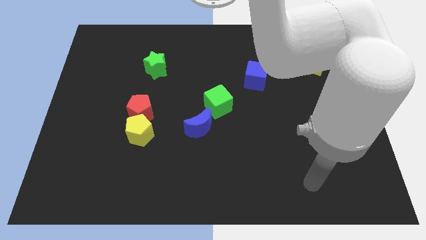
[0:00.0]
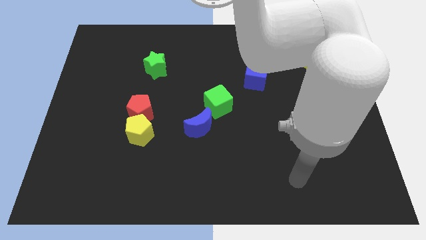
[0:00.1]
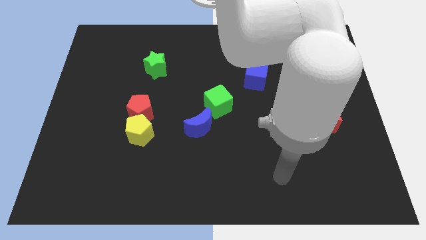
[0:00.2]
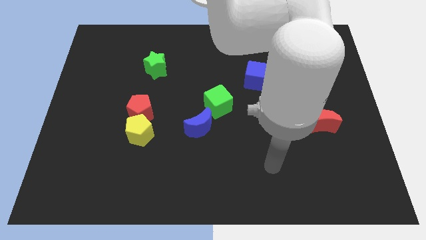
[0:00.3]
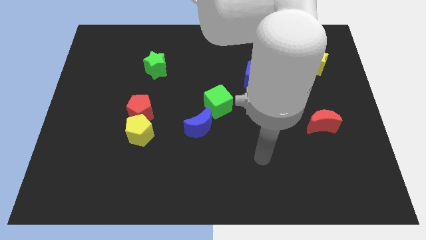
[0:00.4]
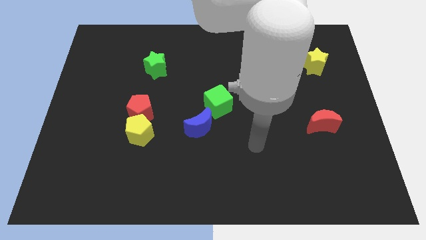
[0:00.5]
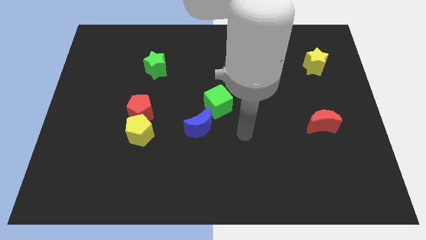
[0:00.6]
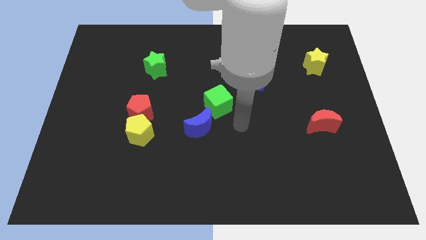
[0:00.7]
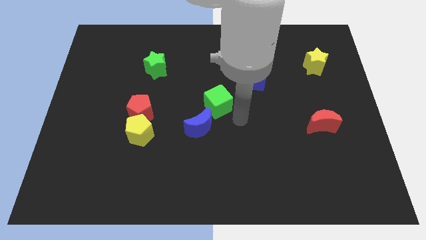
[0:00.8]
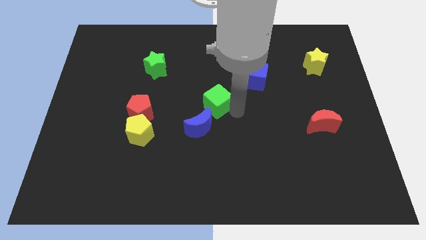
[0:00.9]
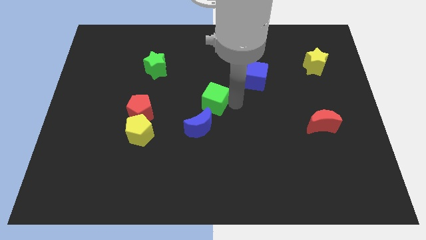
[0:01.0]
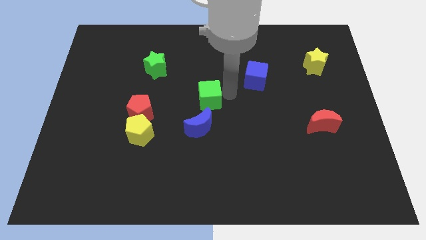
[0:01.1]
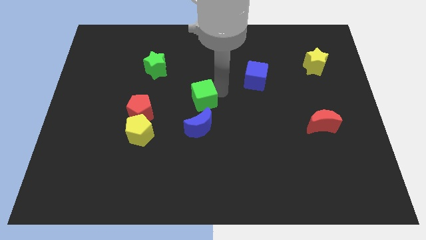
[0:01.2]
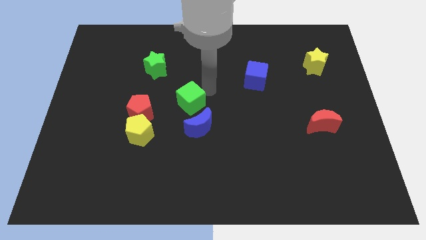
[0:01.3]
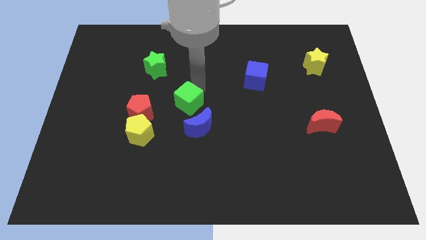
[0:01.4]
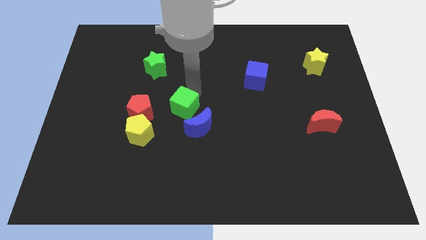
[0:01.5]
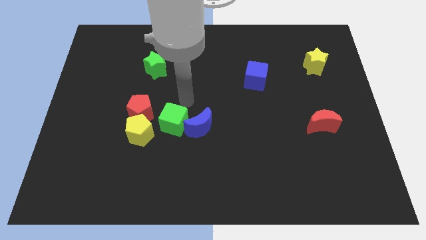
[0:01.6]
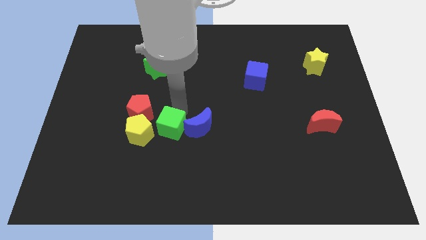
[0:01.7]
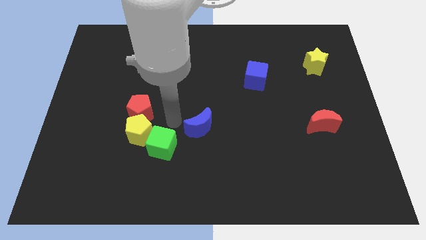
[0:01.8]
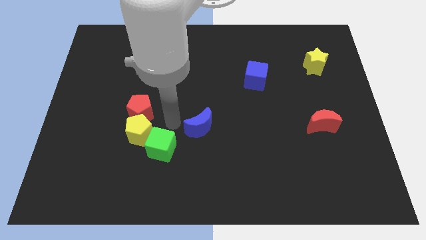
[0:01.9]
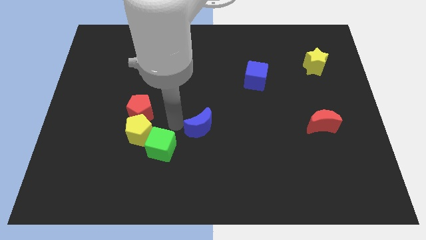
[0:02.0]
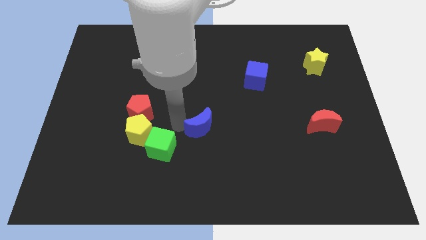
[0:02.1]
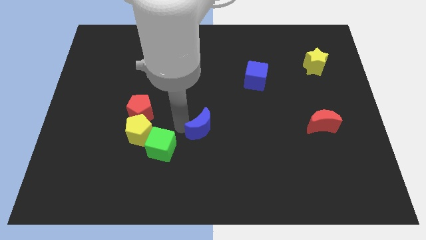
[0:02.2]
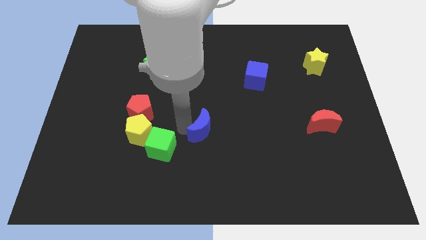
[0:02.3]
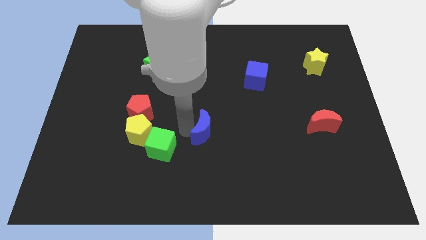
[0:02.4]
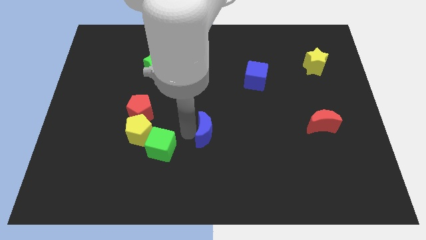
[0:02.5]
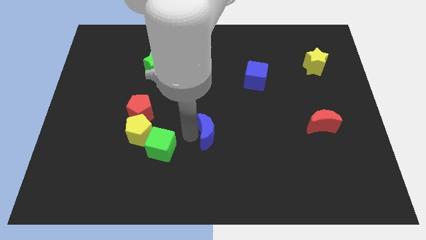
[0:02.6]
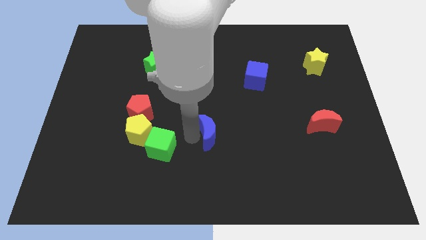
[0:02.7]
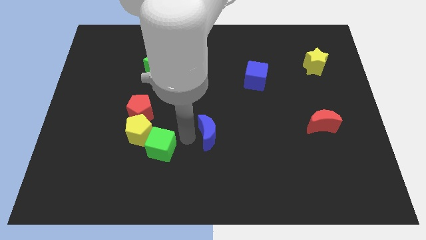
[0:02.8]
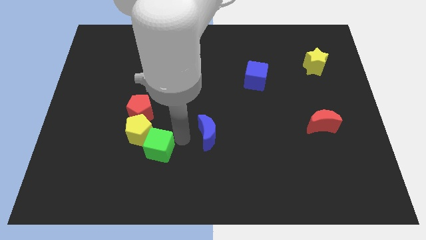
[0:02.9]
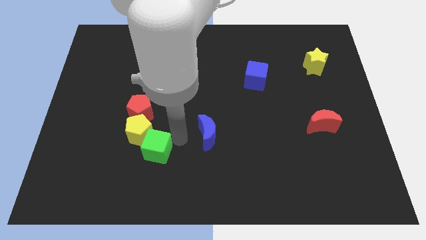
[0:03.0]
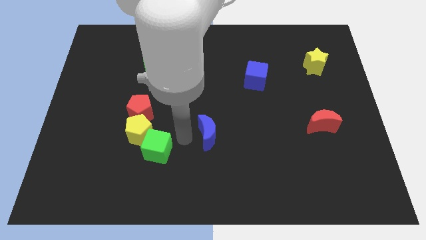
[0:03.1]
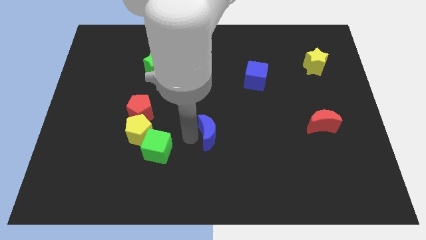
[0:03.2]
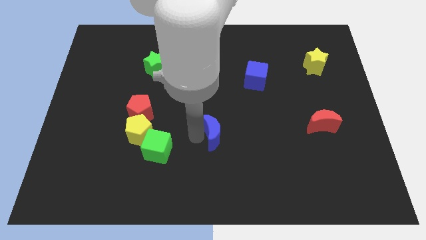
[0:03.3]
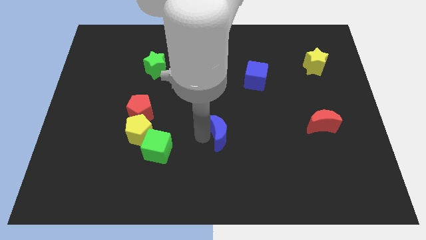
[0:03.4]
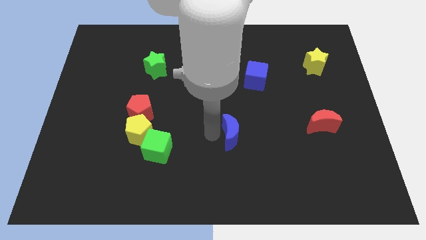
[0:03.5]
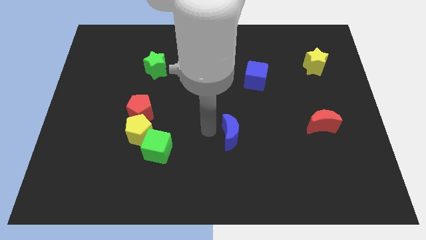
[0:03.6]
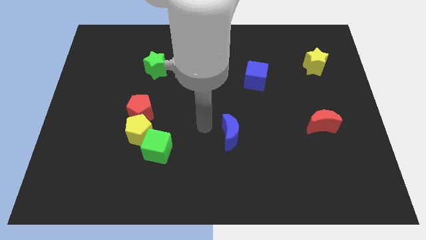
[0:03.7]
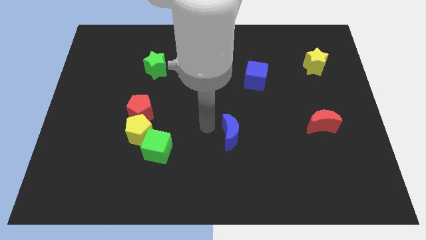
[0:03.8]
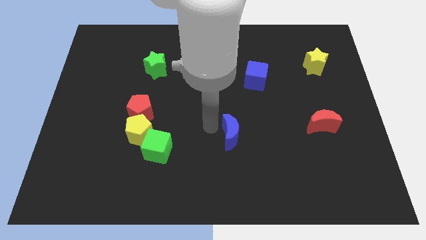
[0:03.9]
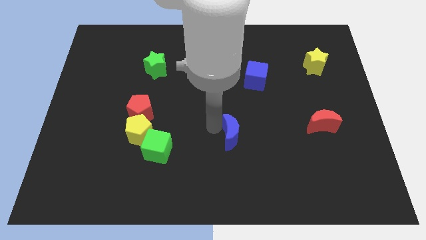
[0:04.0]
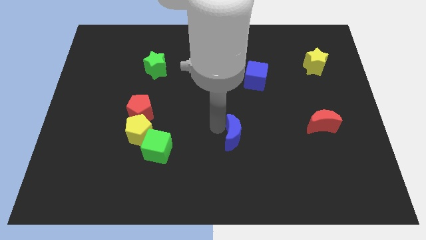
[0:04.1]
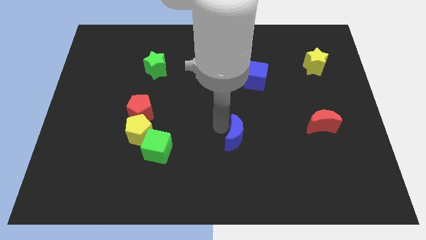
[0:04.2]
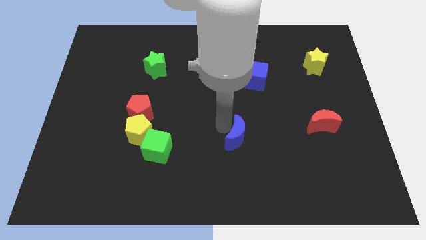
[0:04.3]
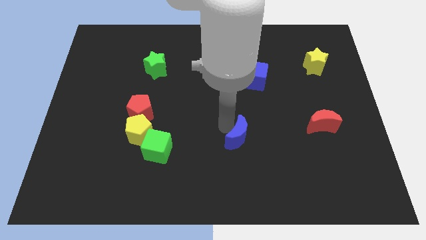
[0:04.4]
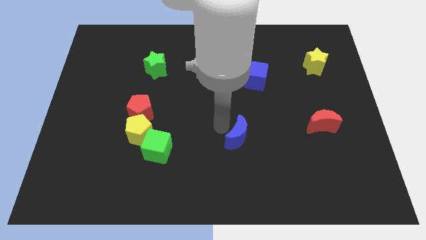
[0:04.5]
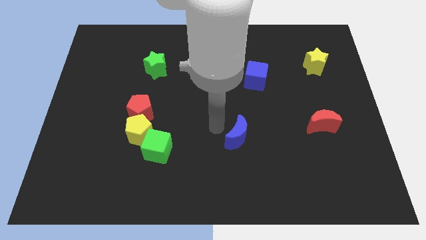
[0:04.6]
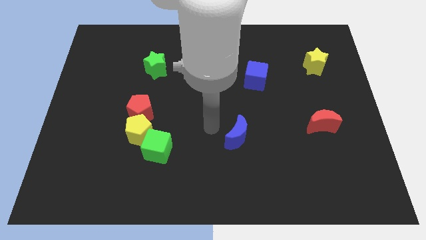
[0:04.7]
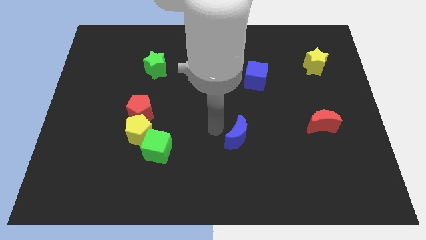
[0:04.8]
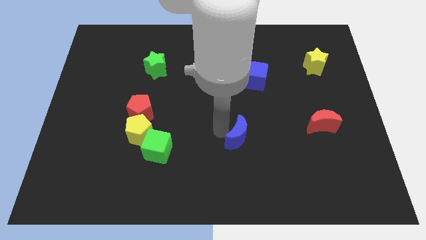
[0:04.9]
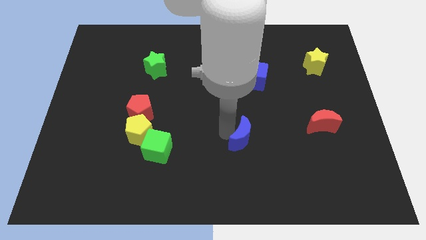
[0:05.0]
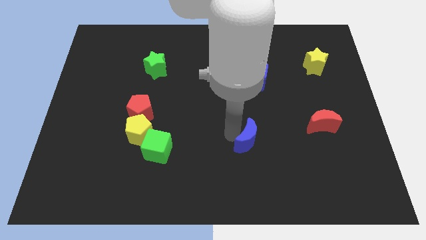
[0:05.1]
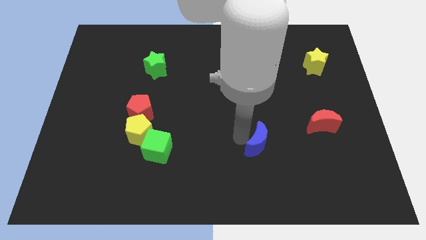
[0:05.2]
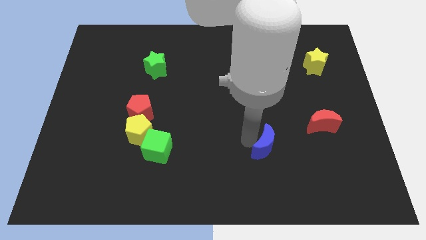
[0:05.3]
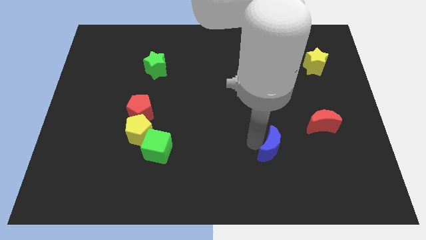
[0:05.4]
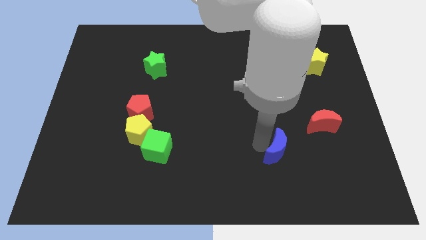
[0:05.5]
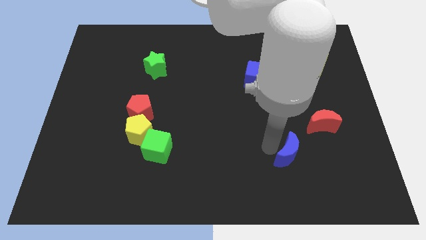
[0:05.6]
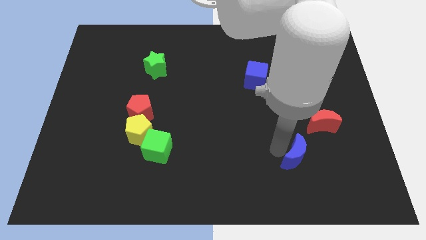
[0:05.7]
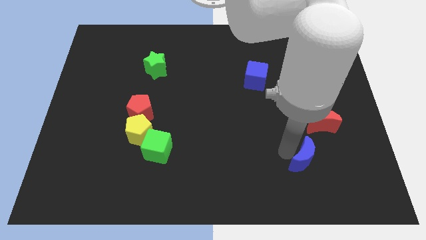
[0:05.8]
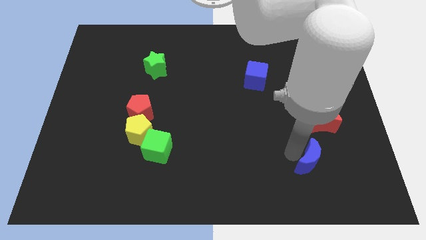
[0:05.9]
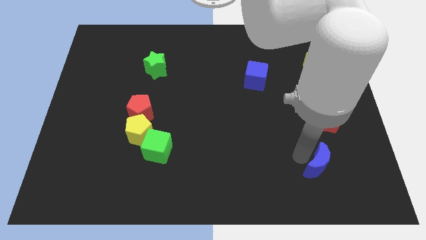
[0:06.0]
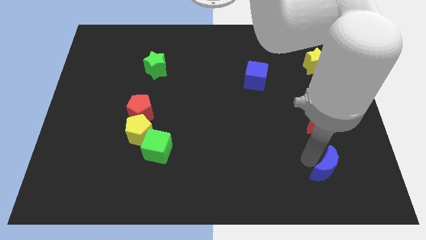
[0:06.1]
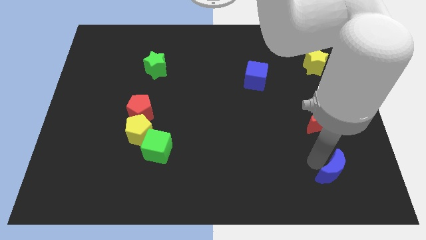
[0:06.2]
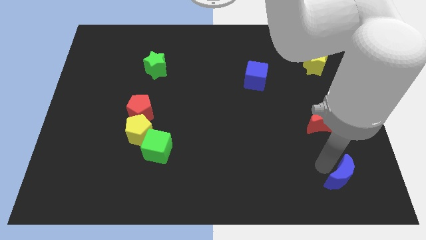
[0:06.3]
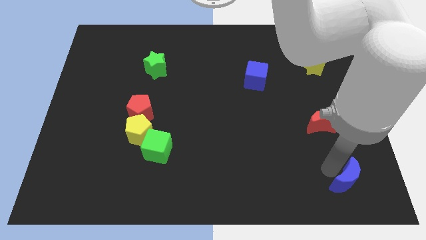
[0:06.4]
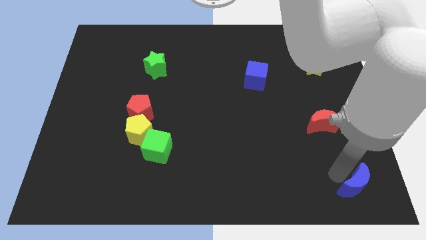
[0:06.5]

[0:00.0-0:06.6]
put the blue moon to the lower right corner

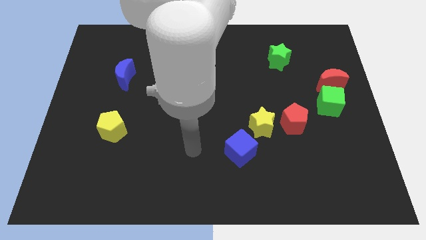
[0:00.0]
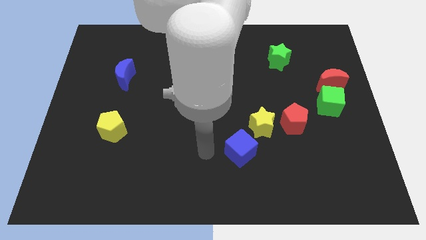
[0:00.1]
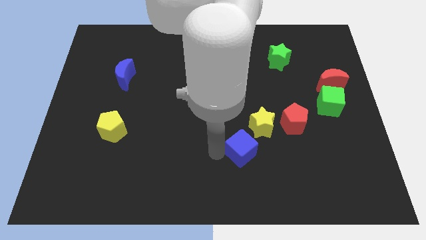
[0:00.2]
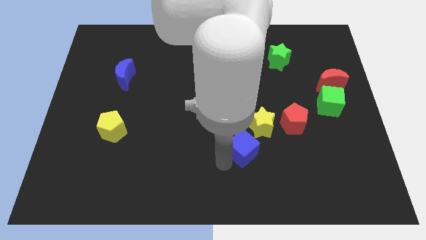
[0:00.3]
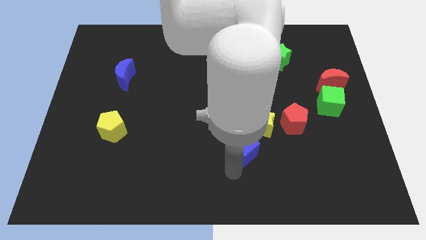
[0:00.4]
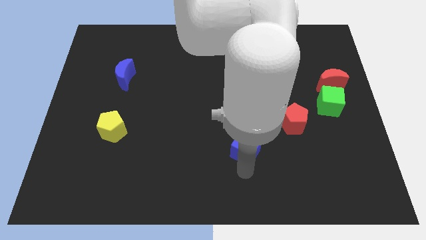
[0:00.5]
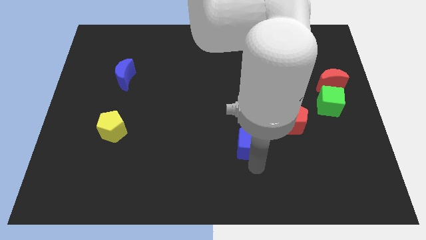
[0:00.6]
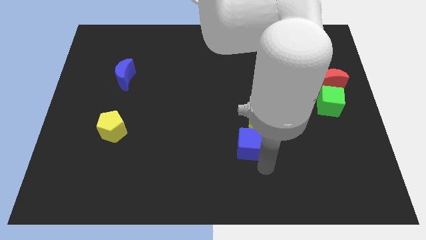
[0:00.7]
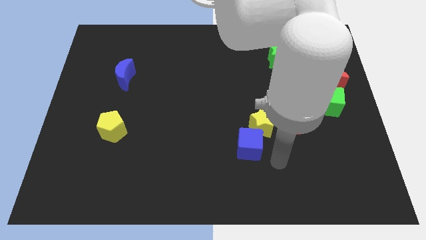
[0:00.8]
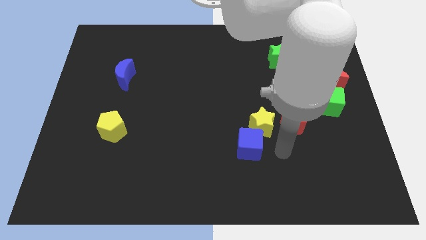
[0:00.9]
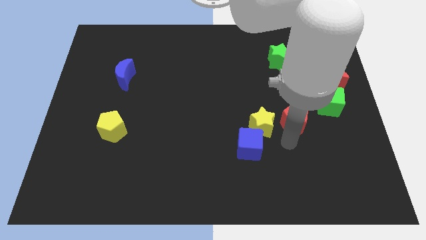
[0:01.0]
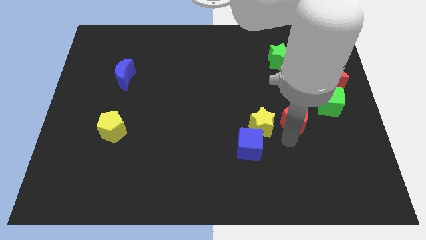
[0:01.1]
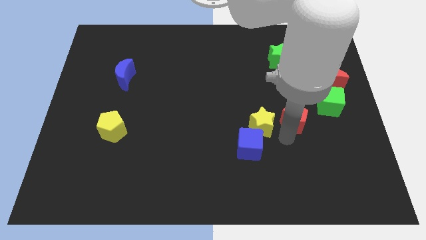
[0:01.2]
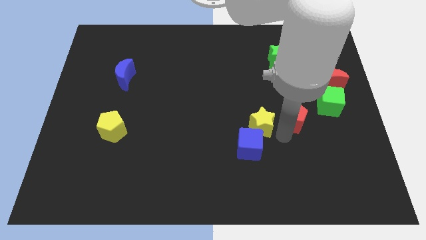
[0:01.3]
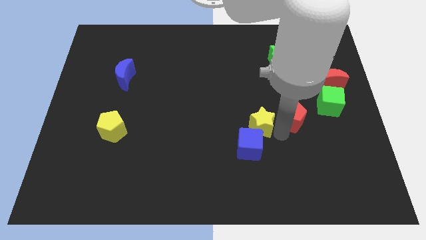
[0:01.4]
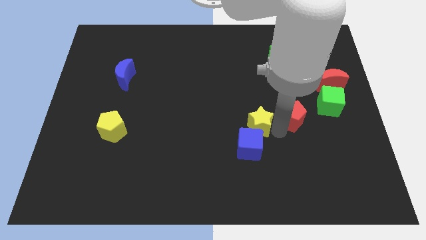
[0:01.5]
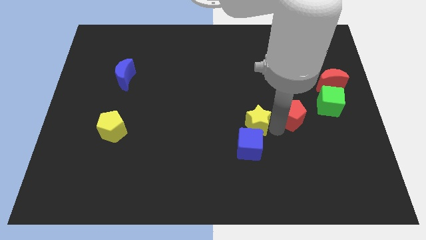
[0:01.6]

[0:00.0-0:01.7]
push the yellow star to the middle of the board
